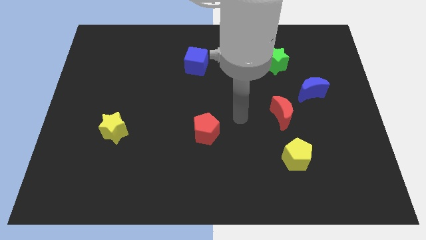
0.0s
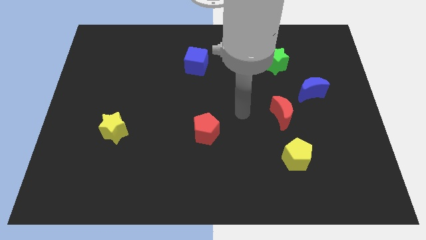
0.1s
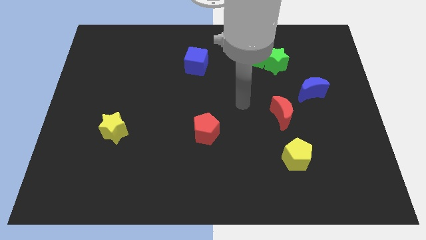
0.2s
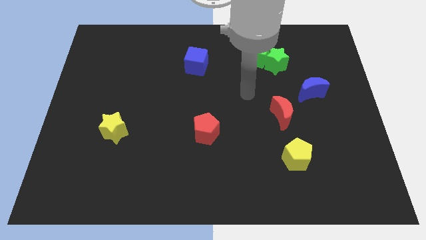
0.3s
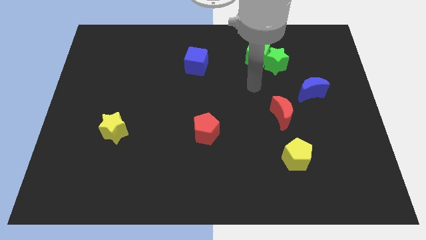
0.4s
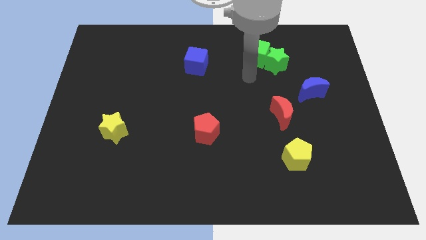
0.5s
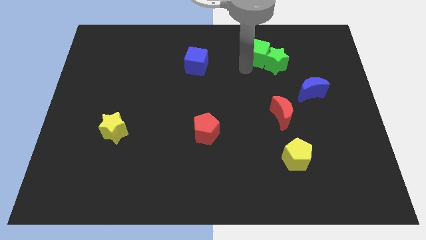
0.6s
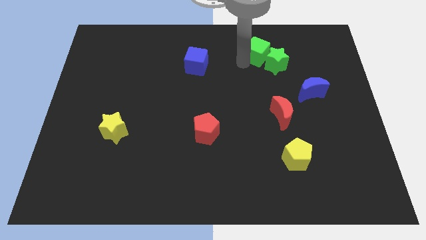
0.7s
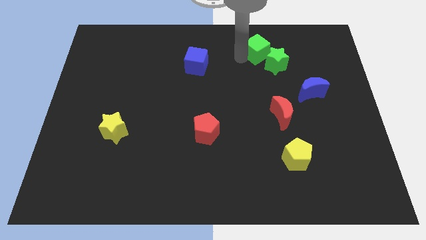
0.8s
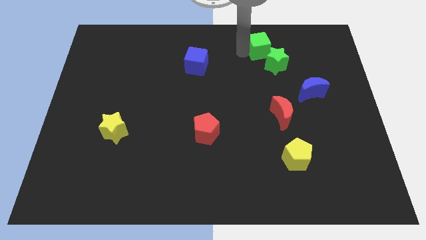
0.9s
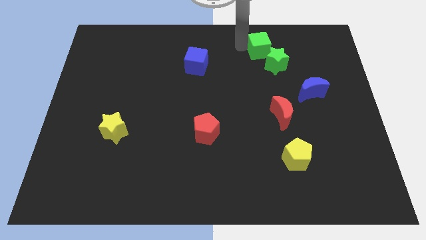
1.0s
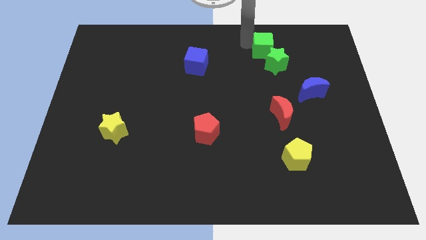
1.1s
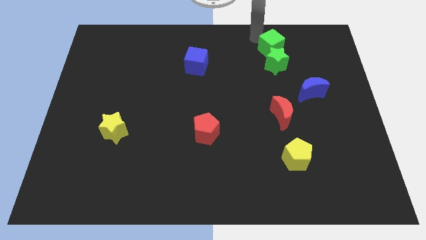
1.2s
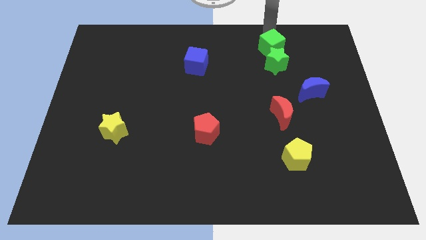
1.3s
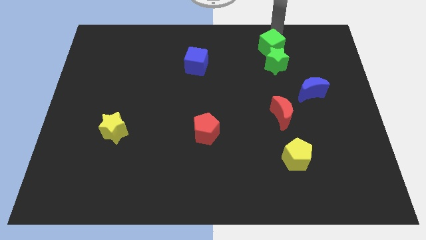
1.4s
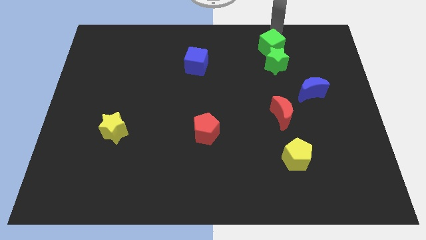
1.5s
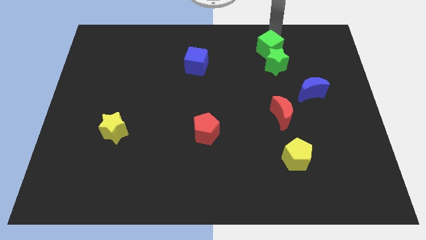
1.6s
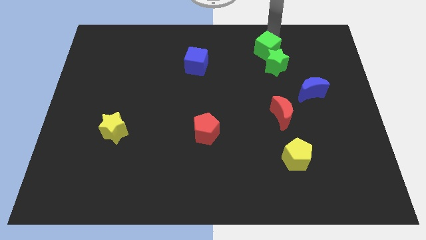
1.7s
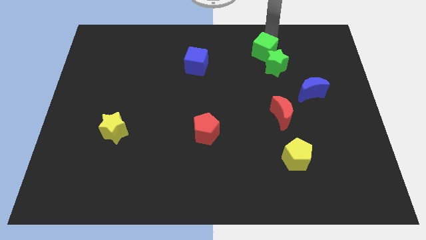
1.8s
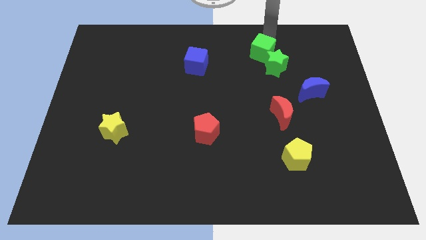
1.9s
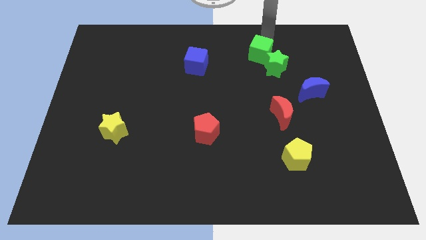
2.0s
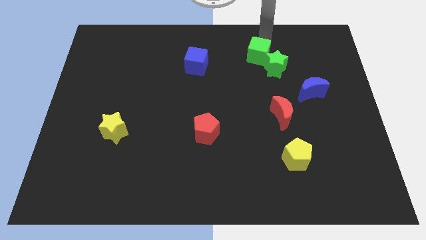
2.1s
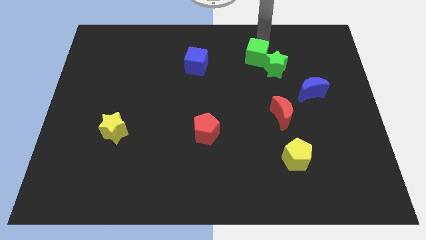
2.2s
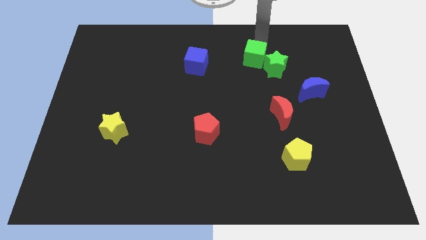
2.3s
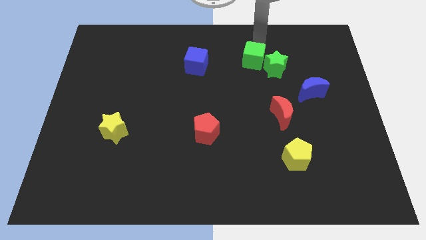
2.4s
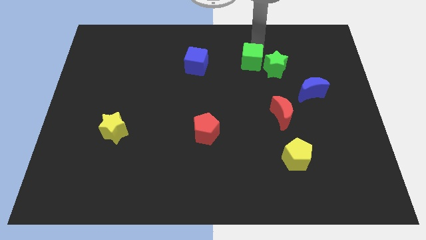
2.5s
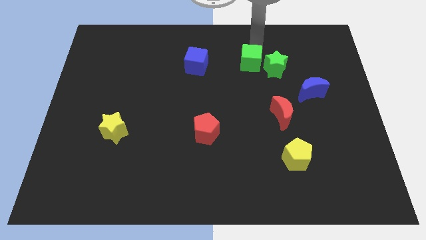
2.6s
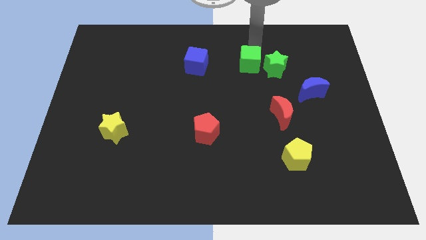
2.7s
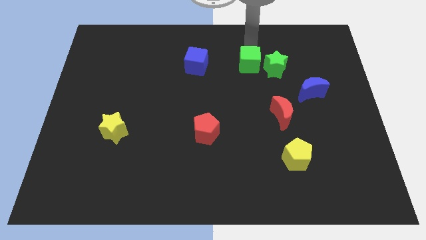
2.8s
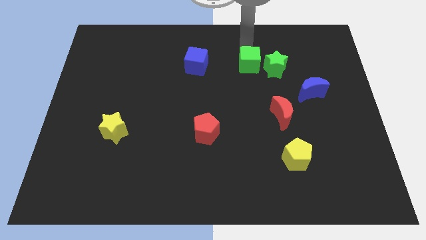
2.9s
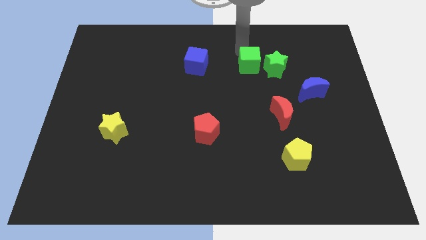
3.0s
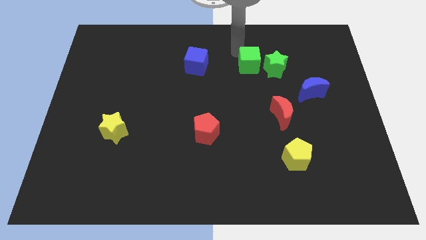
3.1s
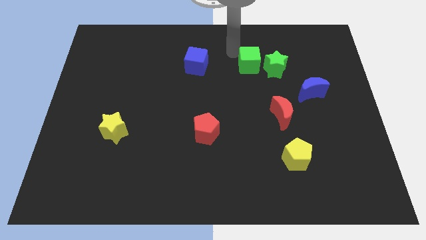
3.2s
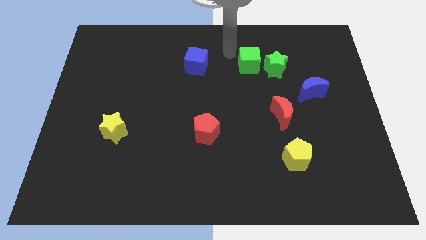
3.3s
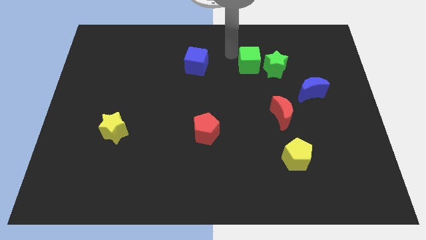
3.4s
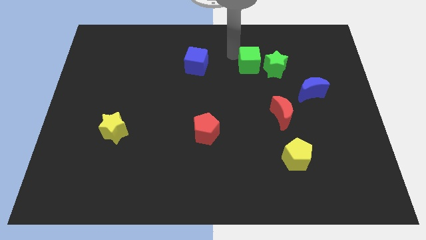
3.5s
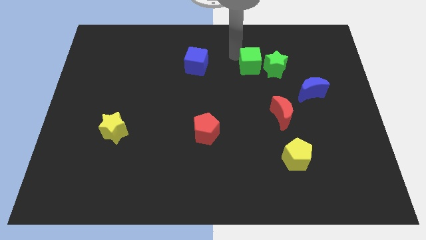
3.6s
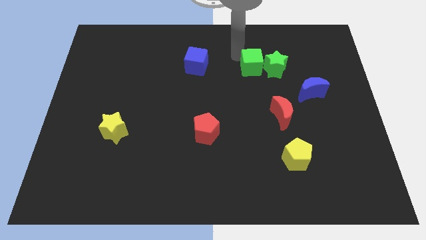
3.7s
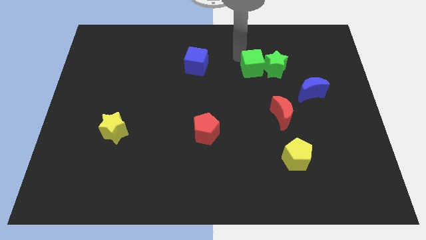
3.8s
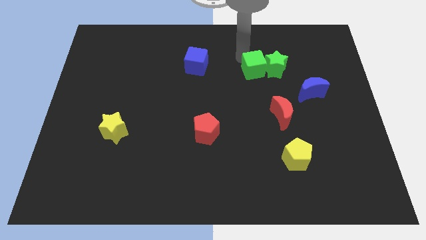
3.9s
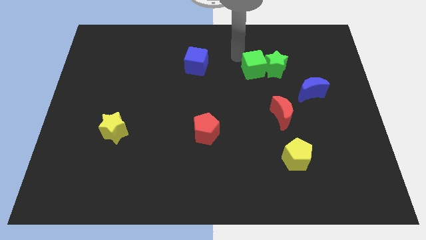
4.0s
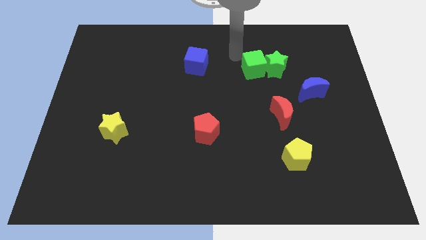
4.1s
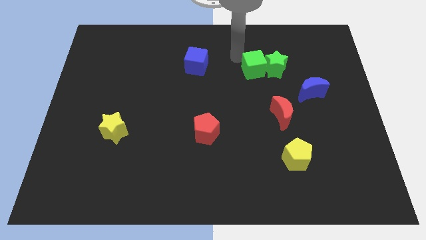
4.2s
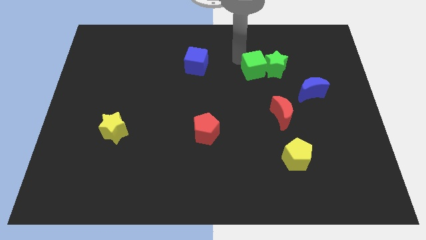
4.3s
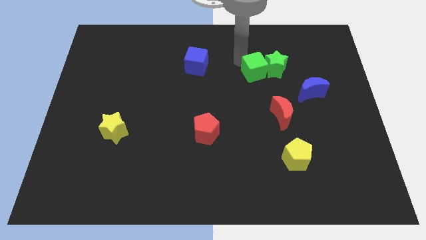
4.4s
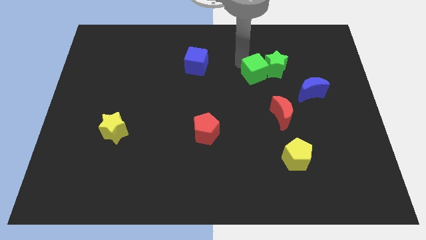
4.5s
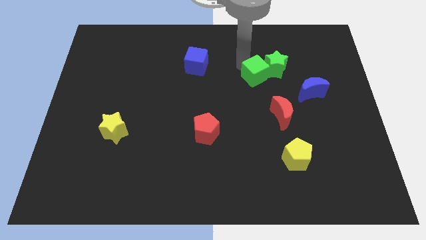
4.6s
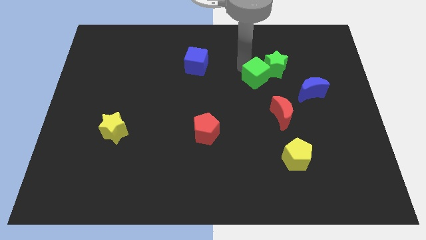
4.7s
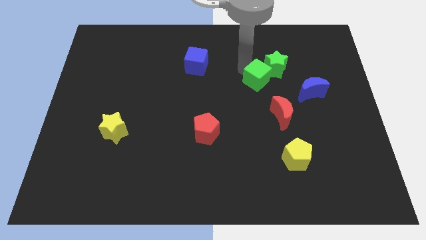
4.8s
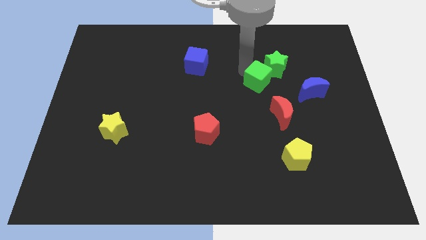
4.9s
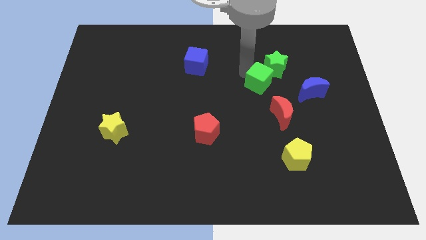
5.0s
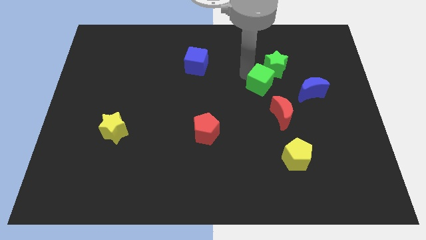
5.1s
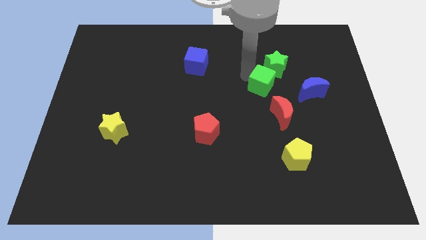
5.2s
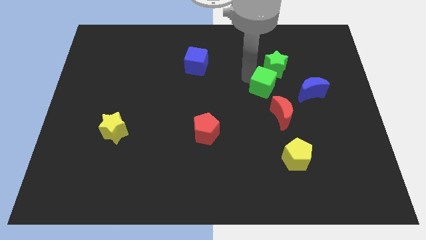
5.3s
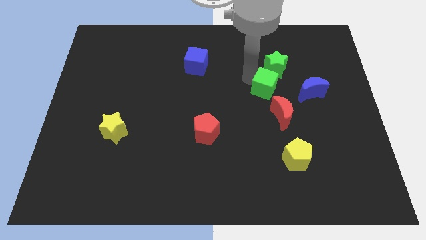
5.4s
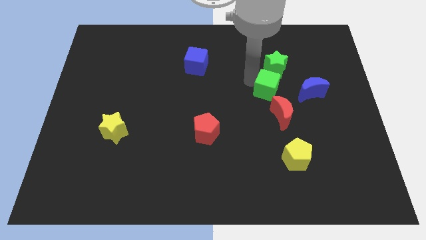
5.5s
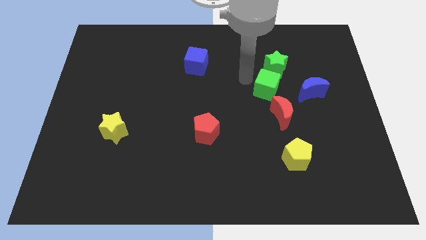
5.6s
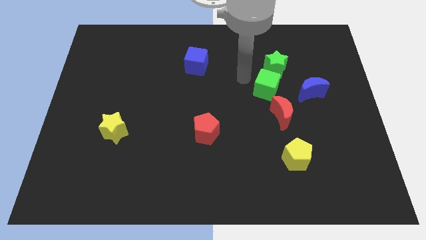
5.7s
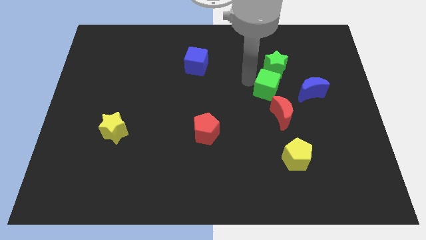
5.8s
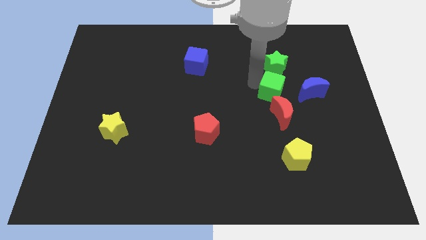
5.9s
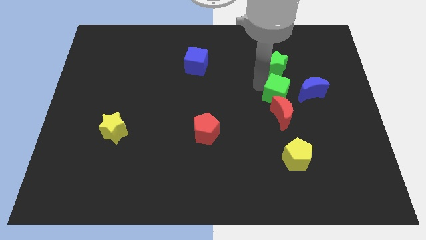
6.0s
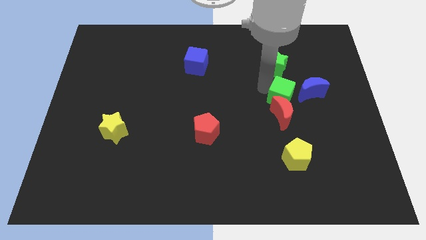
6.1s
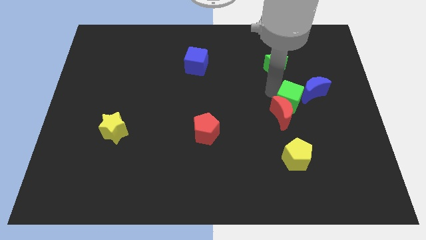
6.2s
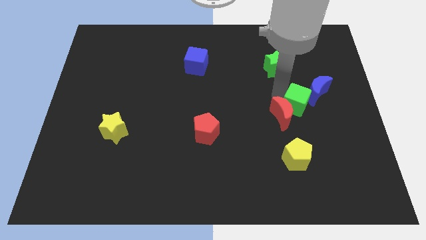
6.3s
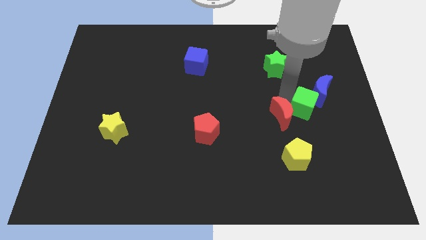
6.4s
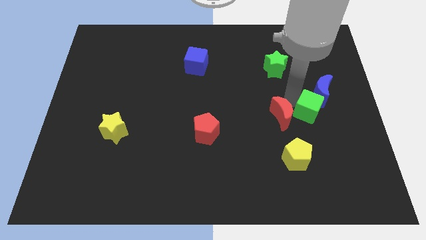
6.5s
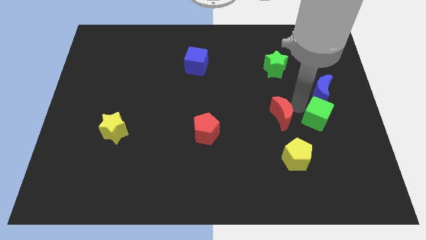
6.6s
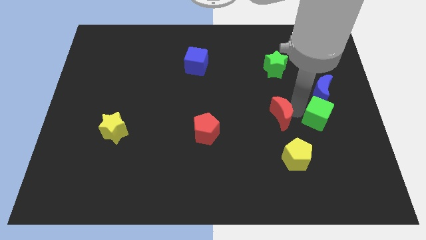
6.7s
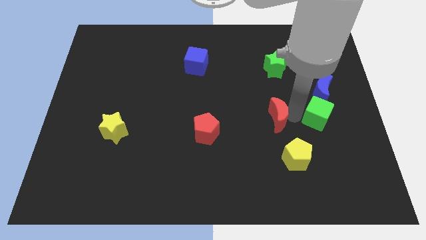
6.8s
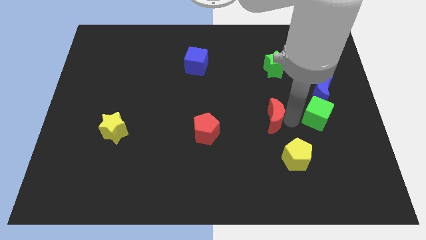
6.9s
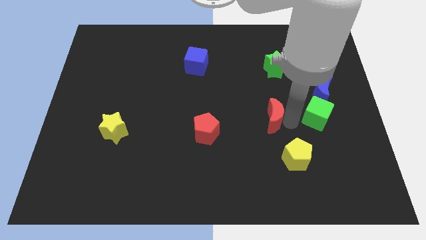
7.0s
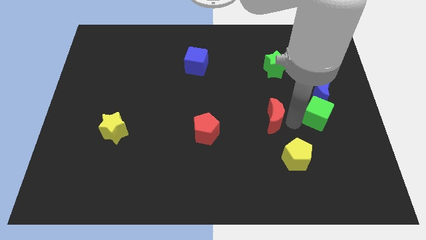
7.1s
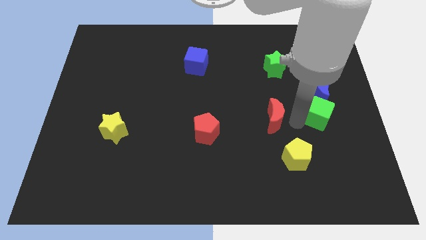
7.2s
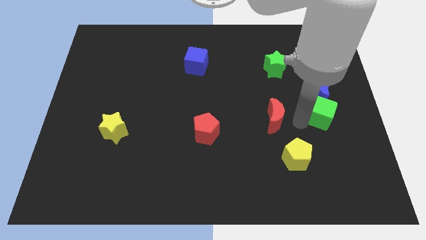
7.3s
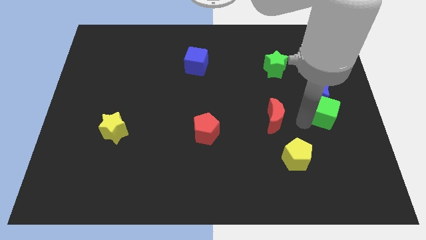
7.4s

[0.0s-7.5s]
put the green cube diagonally down and to the right of the blue moon
